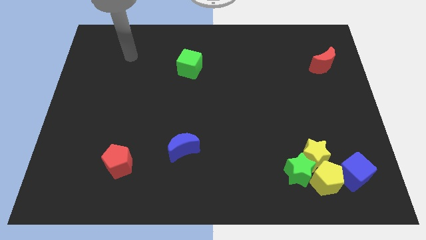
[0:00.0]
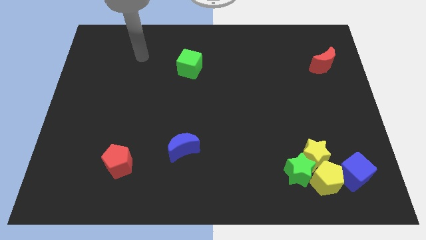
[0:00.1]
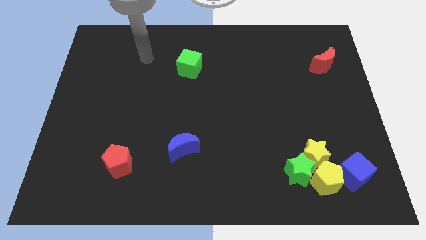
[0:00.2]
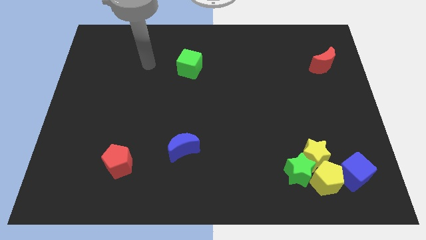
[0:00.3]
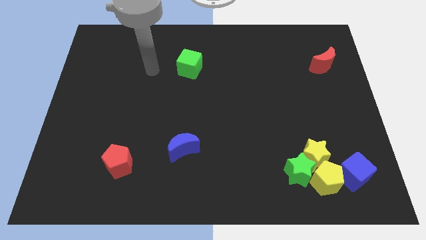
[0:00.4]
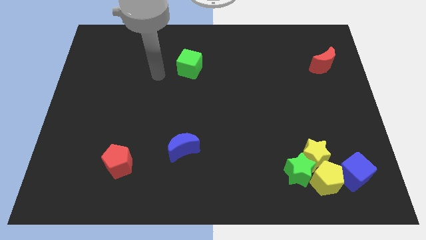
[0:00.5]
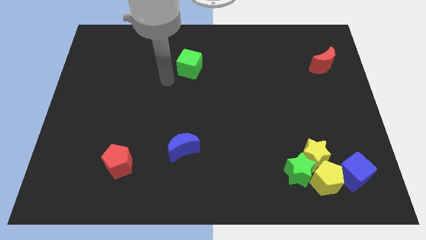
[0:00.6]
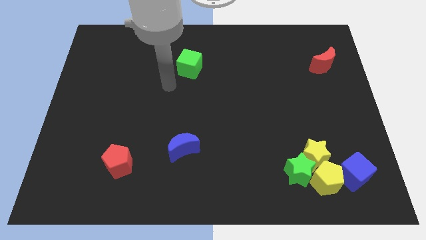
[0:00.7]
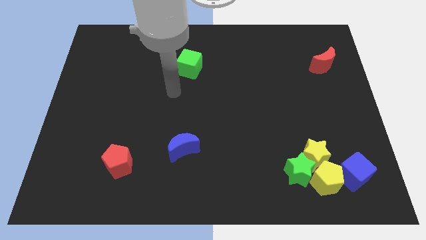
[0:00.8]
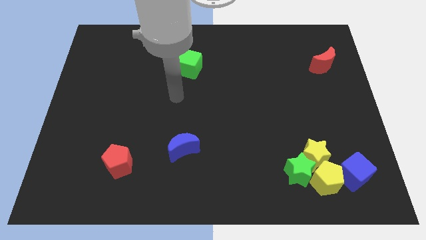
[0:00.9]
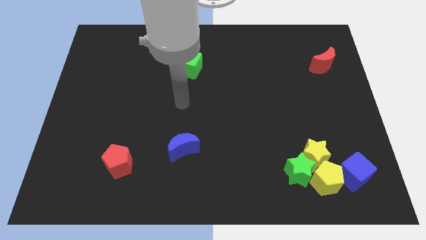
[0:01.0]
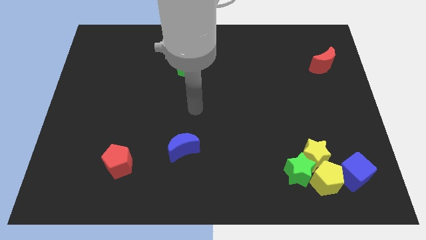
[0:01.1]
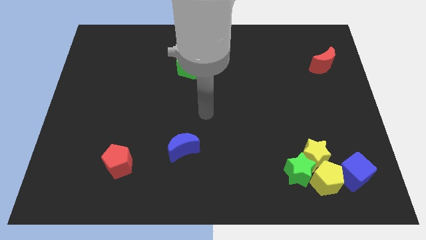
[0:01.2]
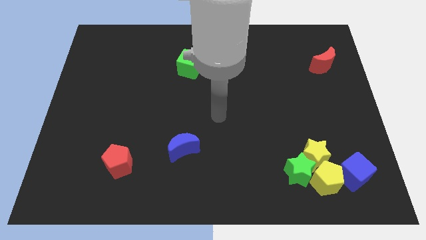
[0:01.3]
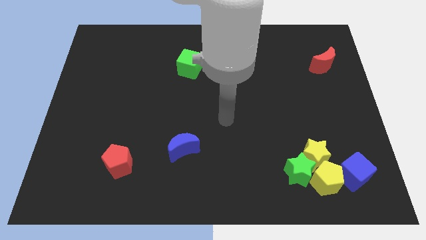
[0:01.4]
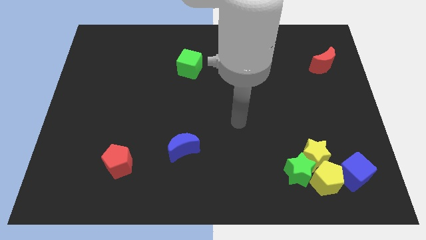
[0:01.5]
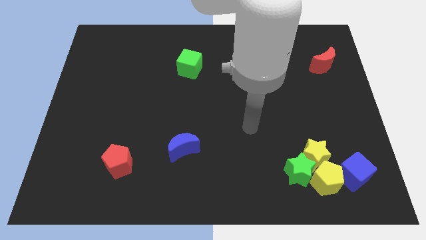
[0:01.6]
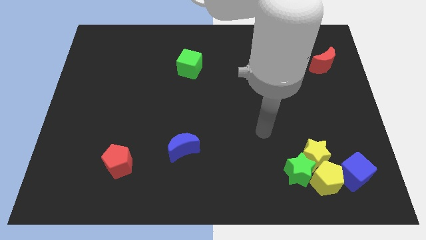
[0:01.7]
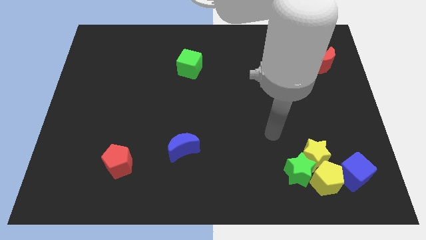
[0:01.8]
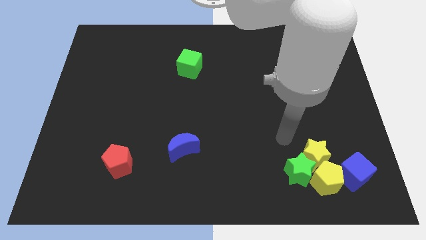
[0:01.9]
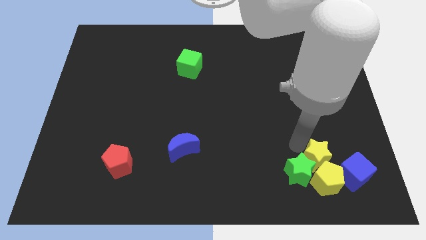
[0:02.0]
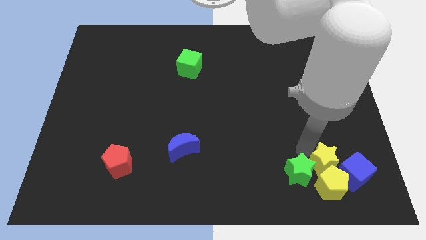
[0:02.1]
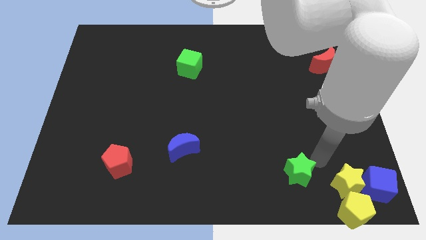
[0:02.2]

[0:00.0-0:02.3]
separate the green star from the yellow star and yellow pentagon

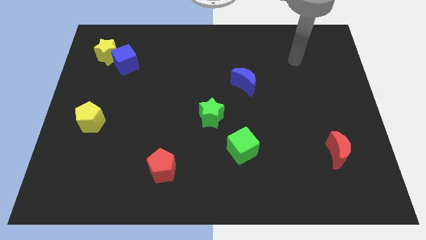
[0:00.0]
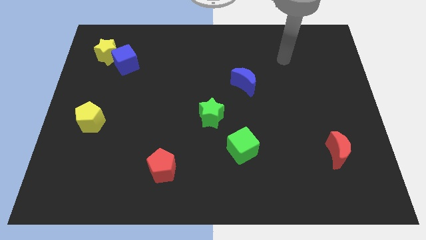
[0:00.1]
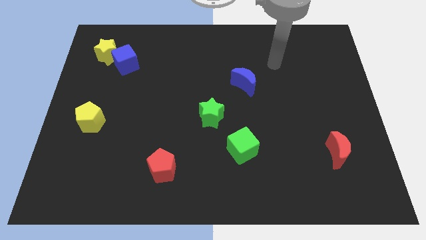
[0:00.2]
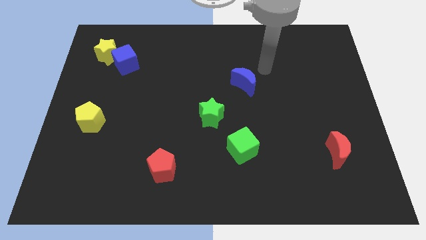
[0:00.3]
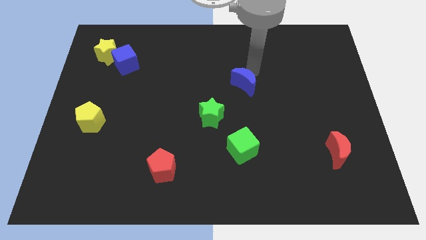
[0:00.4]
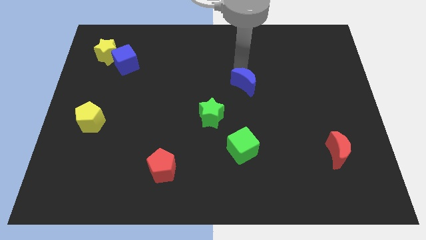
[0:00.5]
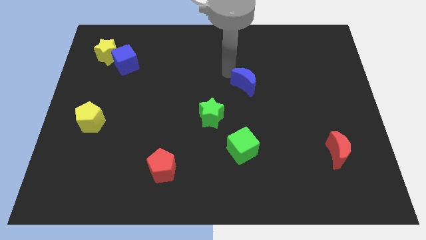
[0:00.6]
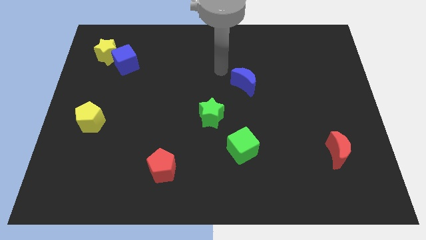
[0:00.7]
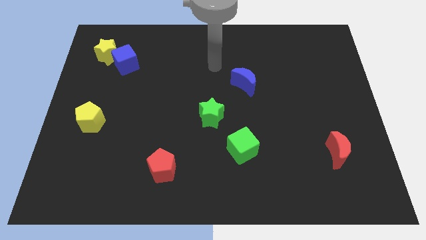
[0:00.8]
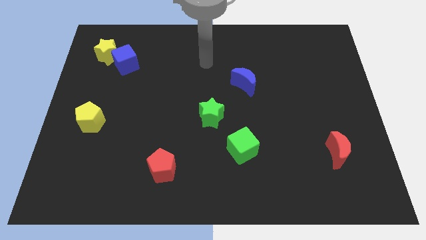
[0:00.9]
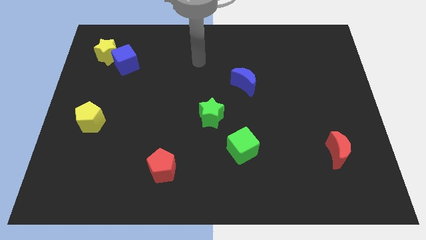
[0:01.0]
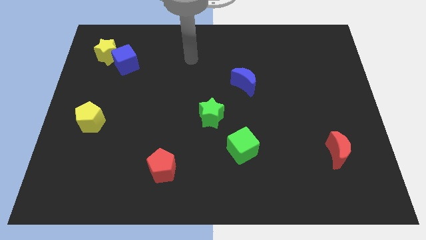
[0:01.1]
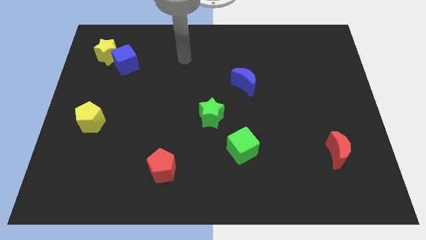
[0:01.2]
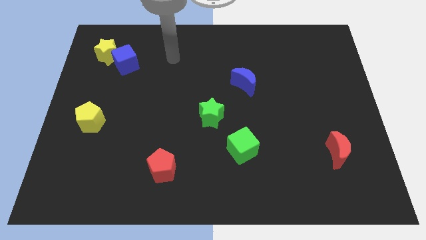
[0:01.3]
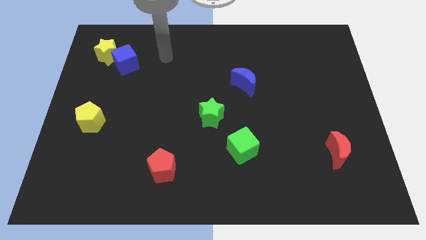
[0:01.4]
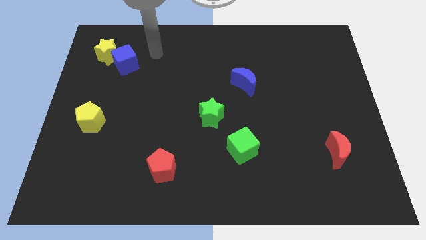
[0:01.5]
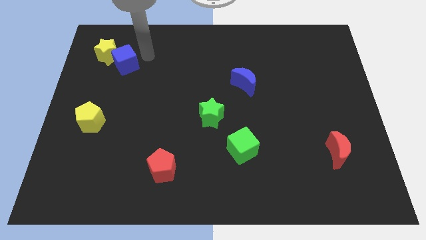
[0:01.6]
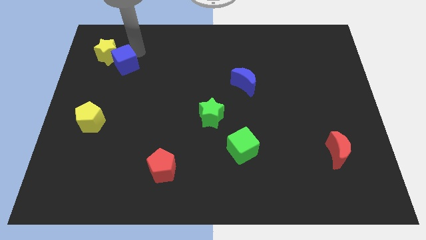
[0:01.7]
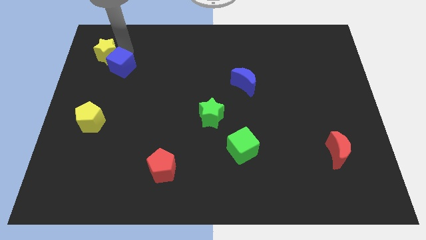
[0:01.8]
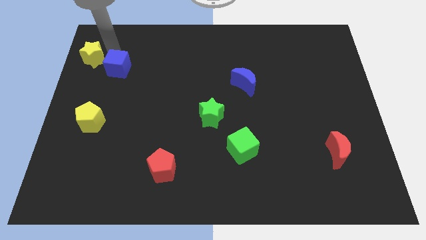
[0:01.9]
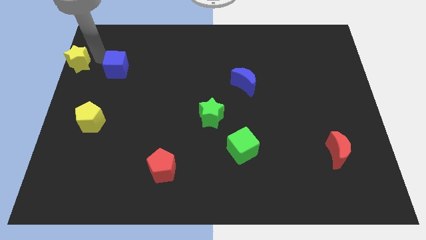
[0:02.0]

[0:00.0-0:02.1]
pull the blue cube apart from the yellow star

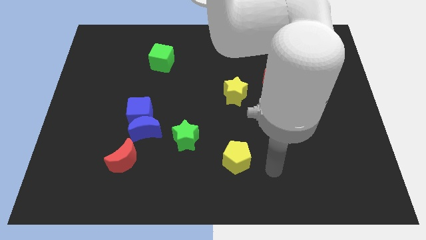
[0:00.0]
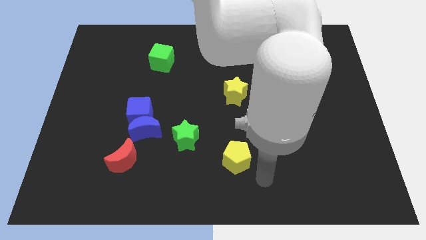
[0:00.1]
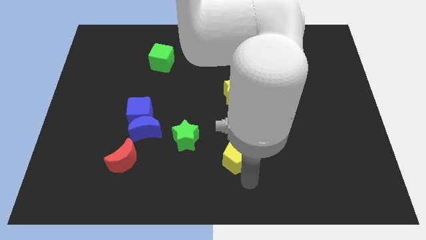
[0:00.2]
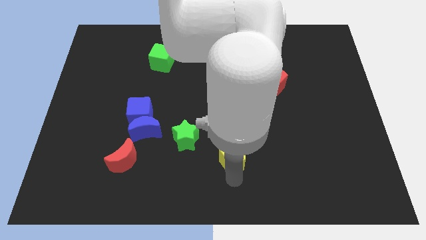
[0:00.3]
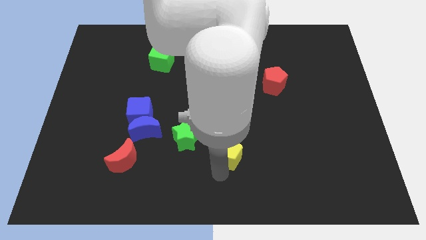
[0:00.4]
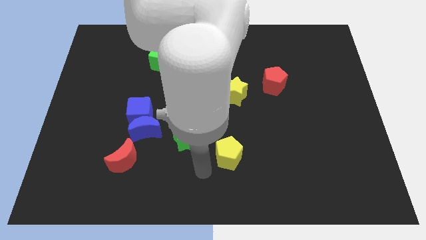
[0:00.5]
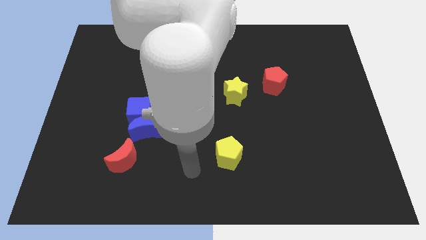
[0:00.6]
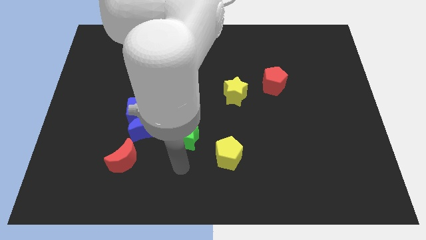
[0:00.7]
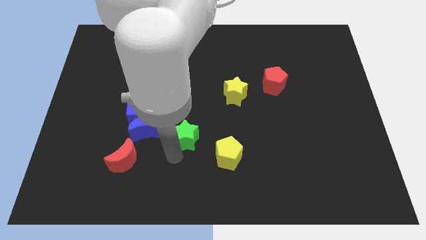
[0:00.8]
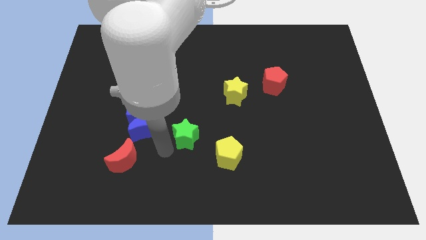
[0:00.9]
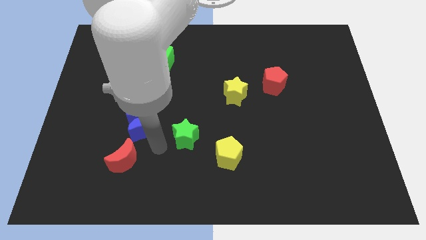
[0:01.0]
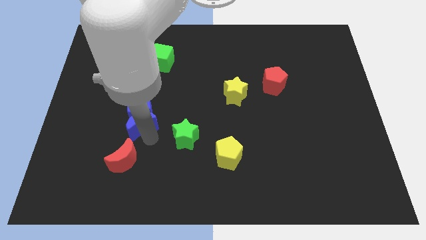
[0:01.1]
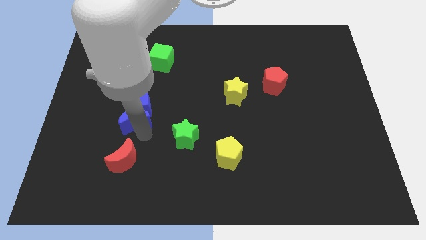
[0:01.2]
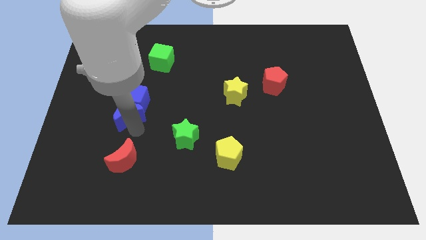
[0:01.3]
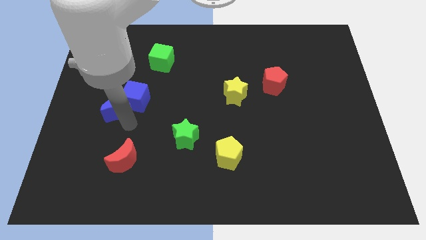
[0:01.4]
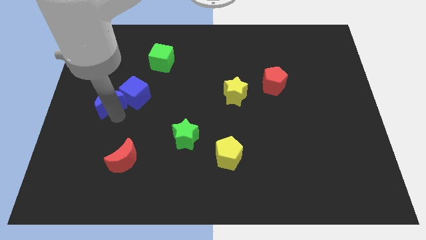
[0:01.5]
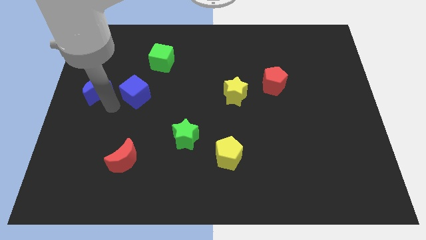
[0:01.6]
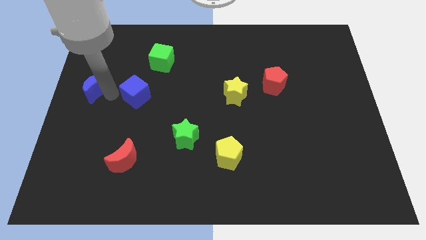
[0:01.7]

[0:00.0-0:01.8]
move the blue cube away from the blue moon

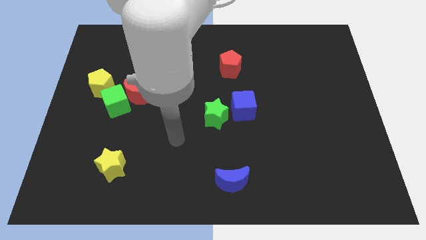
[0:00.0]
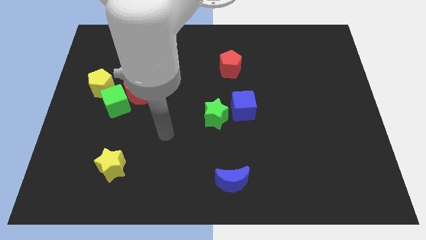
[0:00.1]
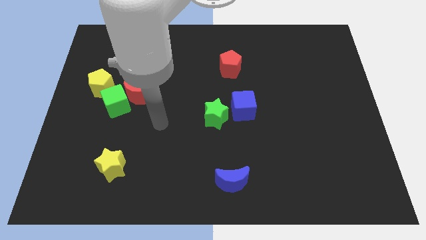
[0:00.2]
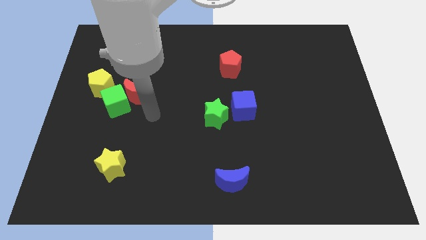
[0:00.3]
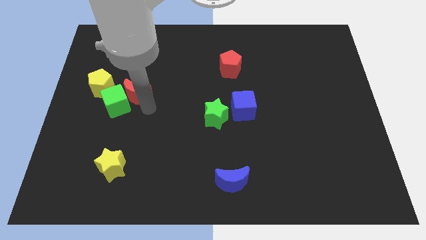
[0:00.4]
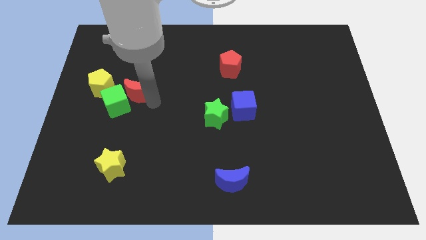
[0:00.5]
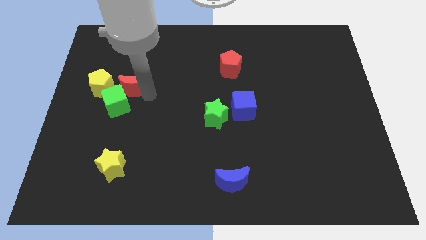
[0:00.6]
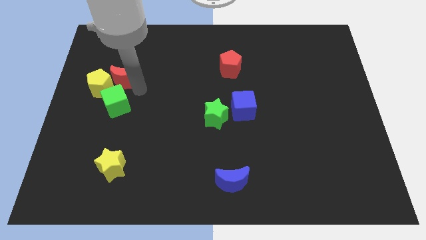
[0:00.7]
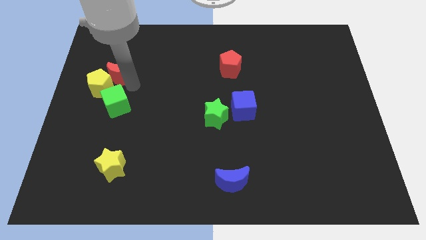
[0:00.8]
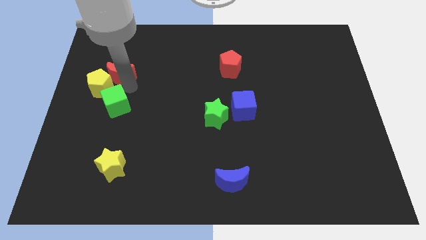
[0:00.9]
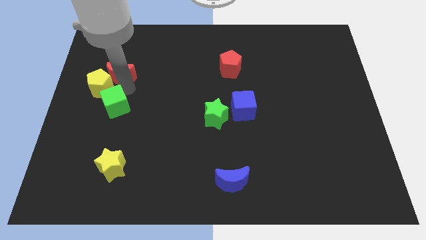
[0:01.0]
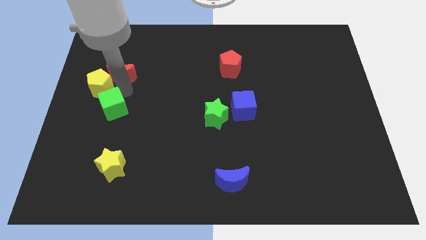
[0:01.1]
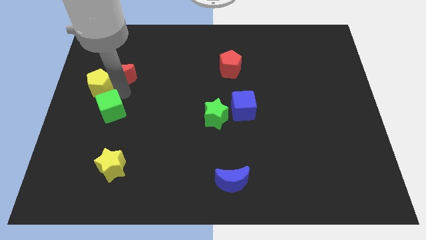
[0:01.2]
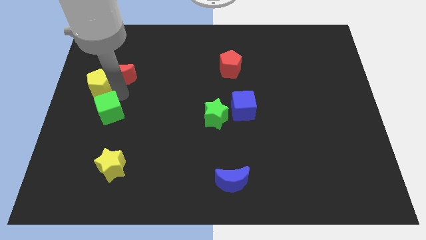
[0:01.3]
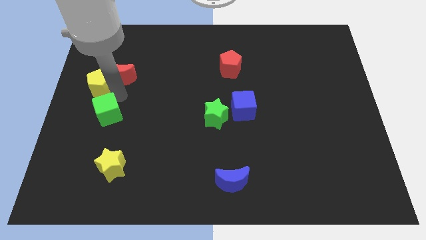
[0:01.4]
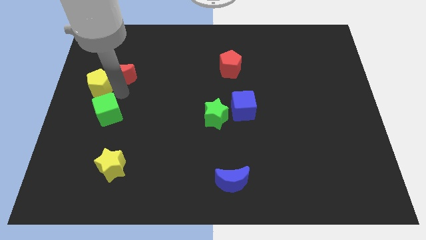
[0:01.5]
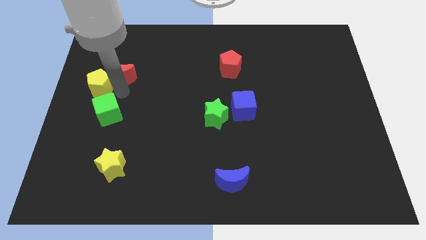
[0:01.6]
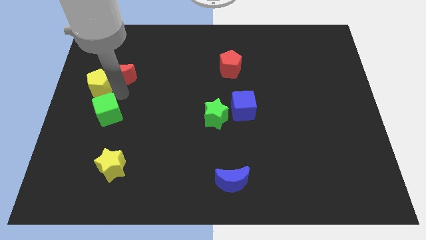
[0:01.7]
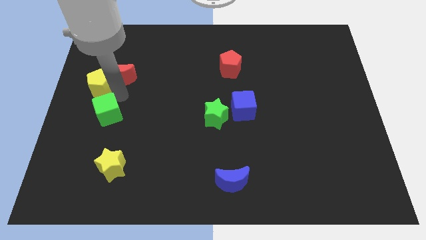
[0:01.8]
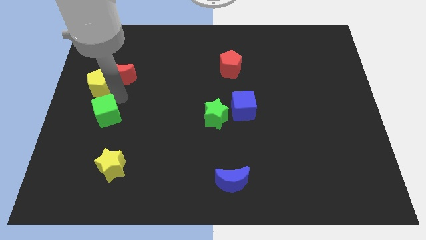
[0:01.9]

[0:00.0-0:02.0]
move the green cube away from the red moon and yellow pentagon

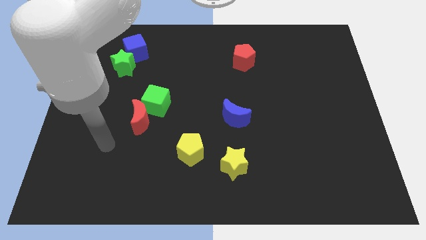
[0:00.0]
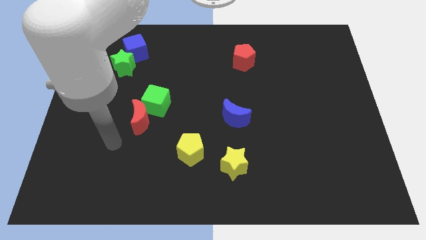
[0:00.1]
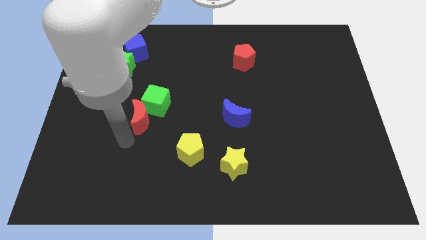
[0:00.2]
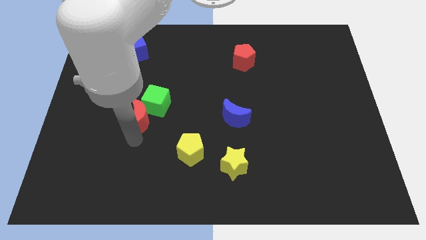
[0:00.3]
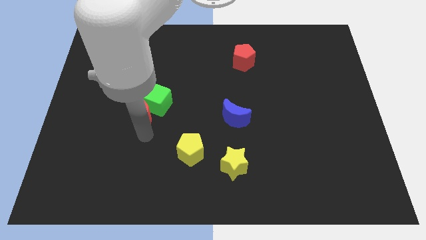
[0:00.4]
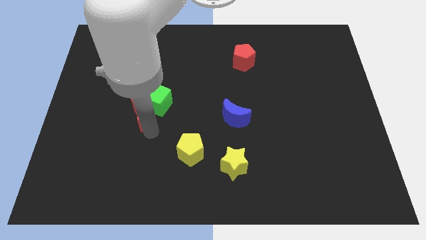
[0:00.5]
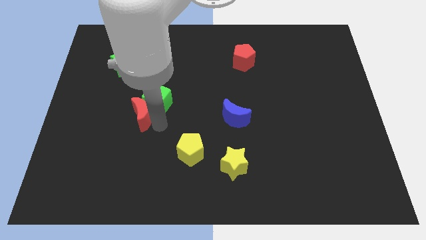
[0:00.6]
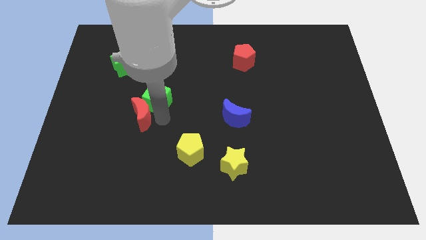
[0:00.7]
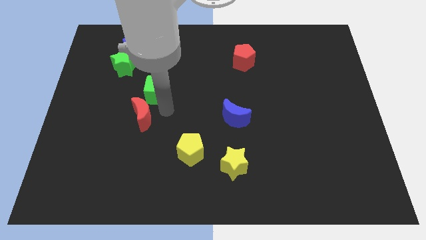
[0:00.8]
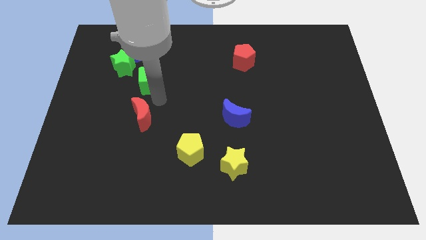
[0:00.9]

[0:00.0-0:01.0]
separate the red moon from the green cube
